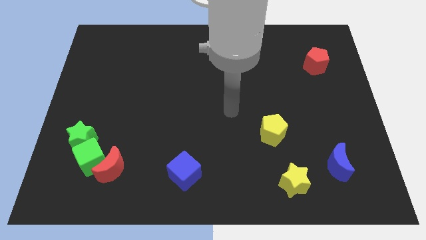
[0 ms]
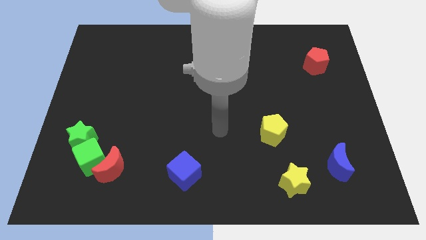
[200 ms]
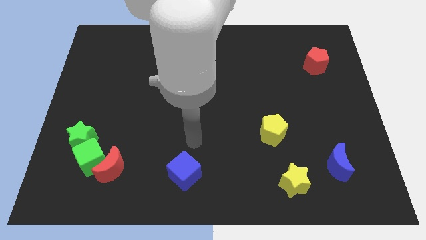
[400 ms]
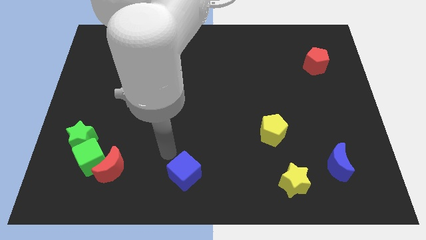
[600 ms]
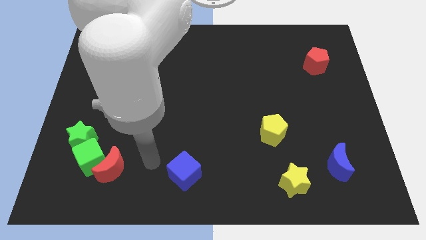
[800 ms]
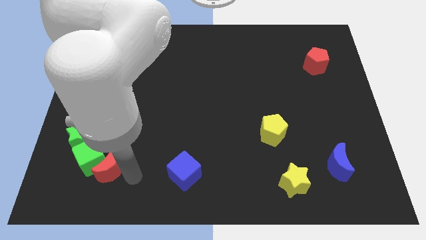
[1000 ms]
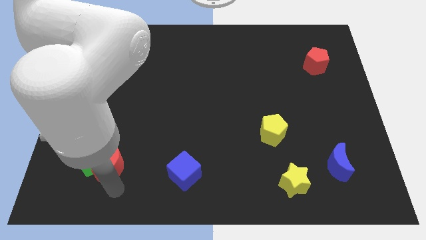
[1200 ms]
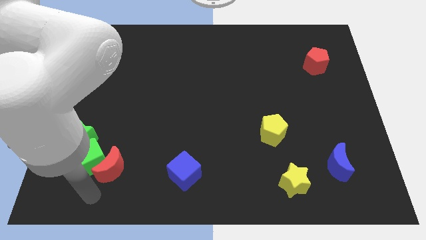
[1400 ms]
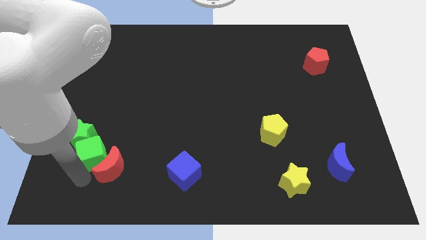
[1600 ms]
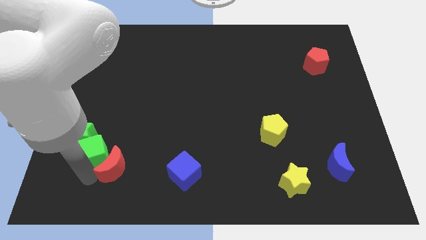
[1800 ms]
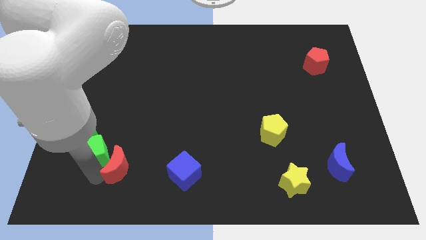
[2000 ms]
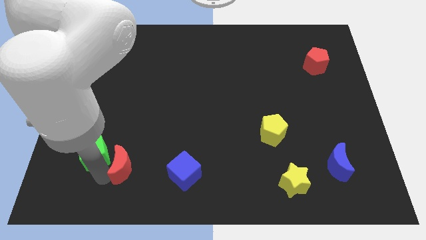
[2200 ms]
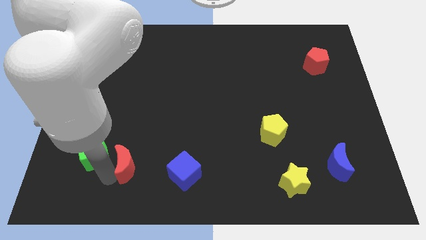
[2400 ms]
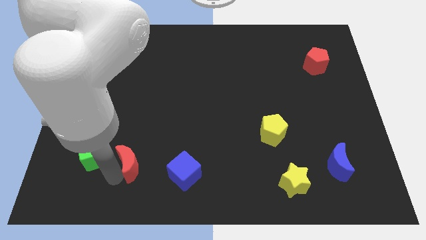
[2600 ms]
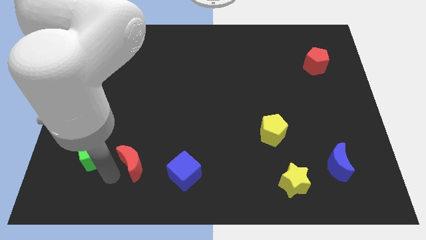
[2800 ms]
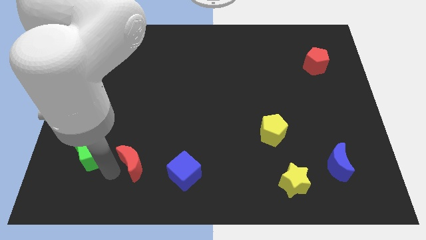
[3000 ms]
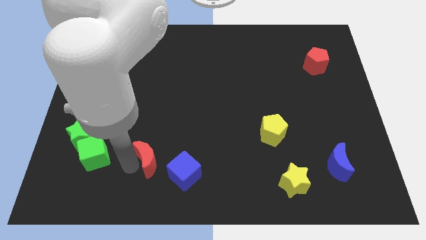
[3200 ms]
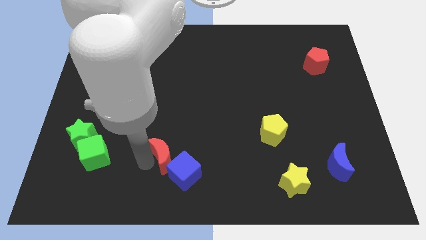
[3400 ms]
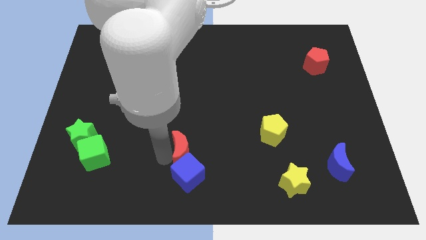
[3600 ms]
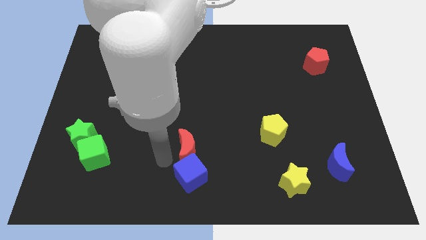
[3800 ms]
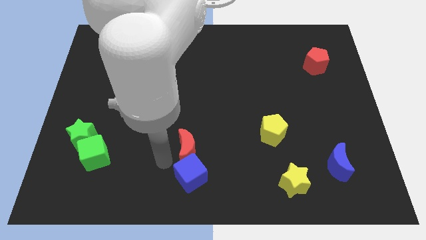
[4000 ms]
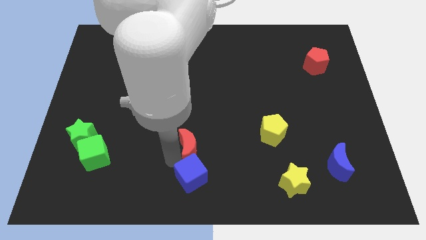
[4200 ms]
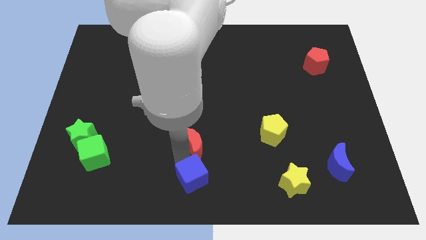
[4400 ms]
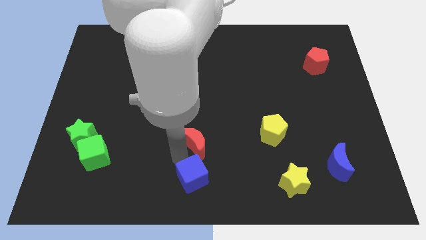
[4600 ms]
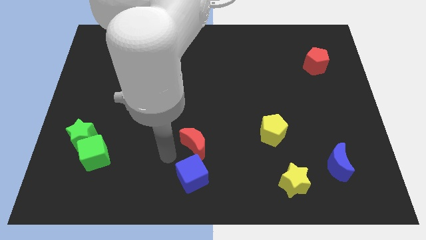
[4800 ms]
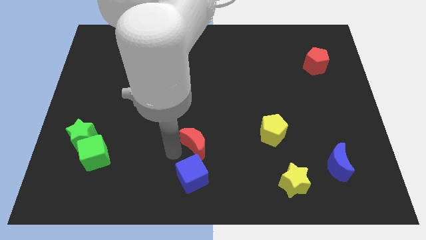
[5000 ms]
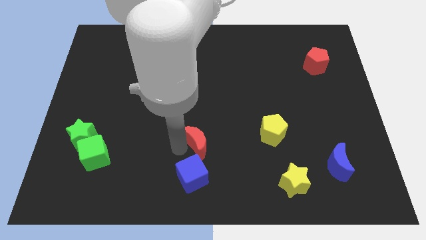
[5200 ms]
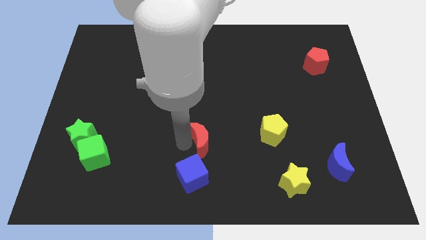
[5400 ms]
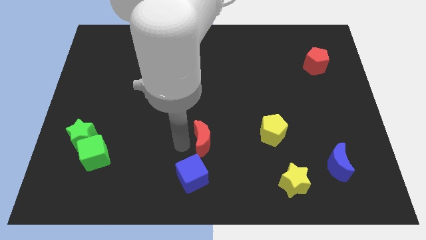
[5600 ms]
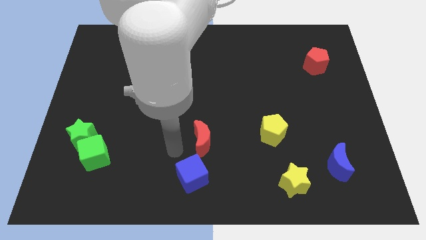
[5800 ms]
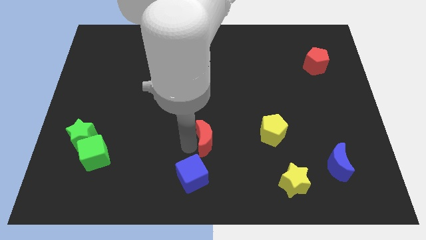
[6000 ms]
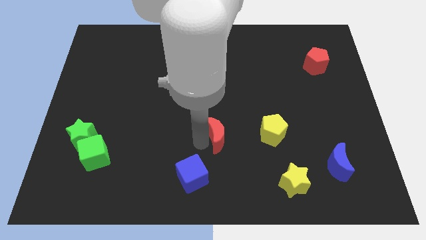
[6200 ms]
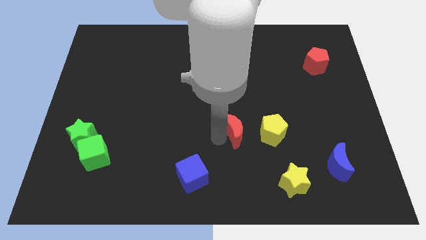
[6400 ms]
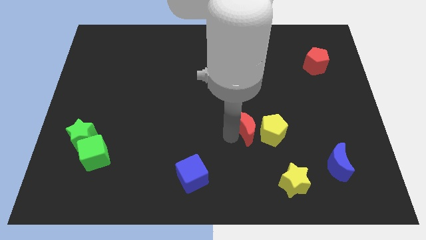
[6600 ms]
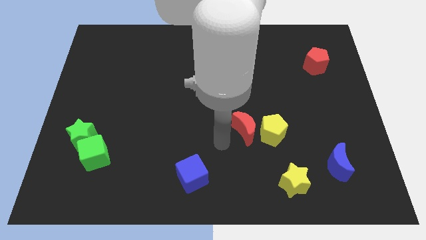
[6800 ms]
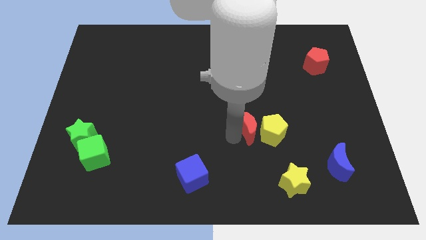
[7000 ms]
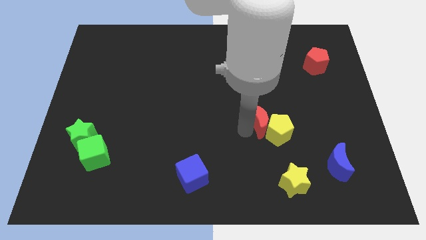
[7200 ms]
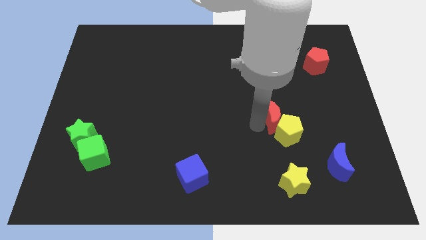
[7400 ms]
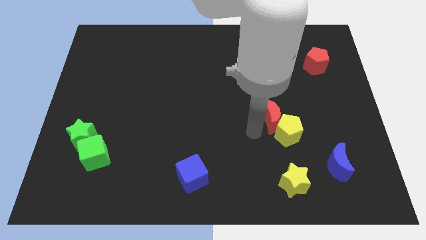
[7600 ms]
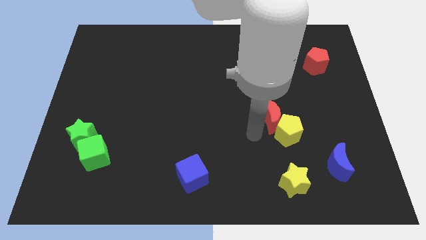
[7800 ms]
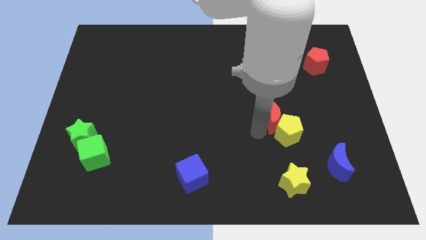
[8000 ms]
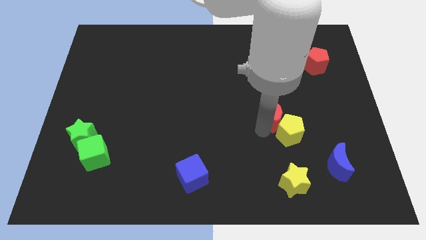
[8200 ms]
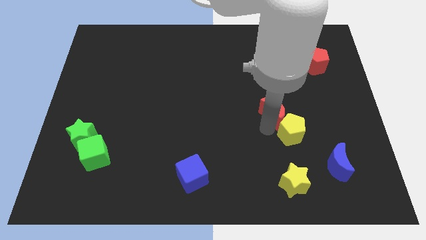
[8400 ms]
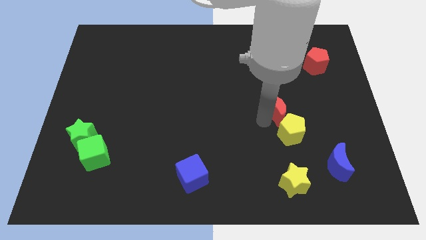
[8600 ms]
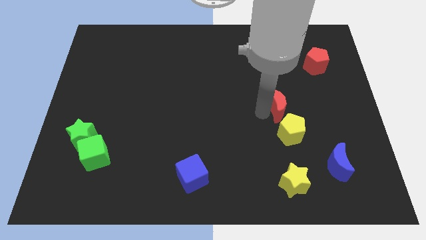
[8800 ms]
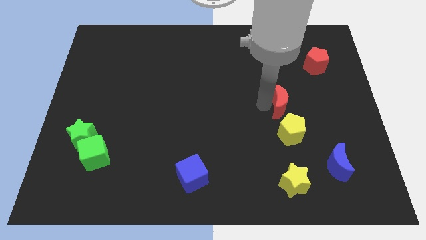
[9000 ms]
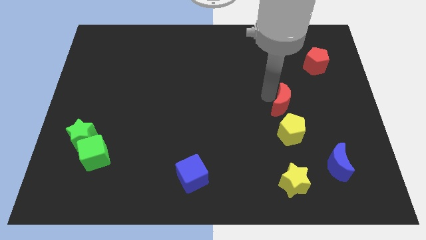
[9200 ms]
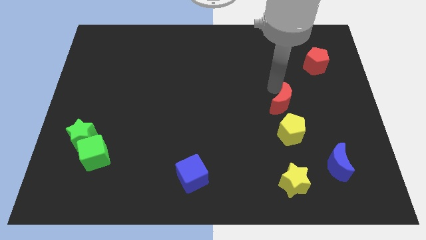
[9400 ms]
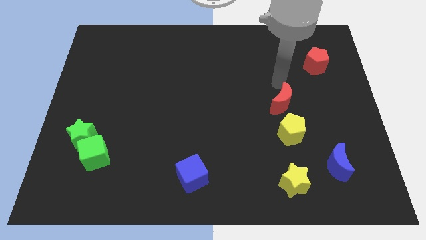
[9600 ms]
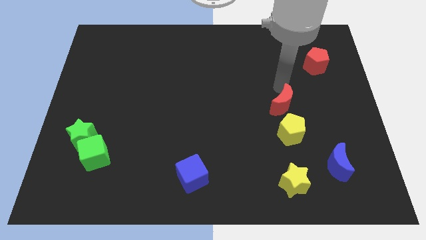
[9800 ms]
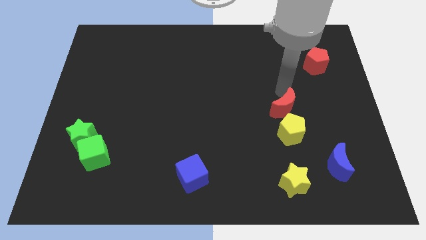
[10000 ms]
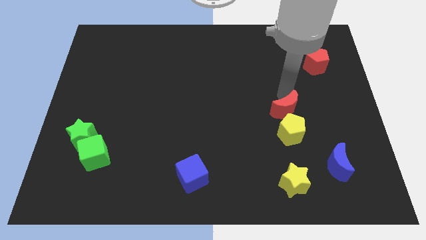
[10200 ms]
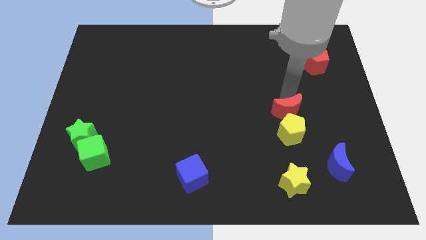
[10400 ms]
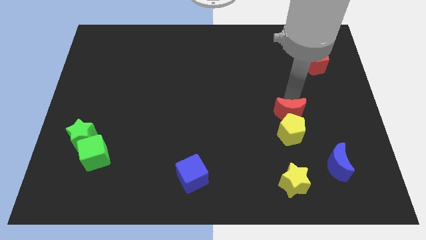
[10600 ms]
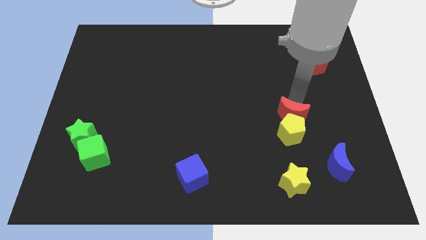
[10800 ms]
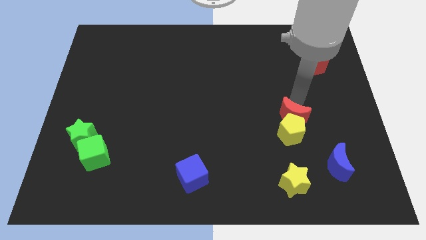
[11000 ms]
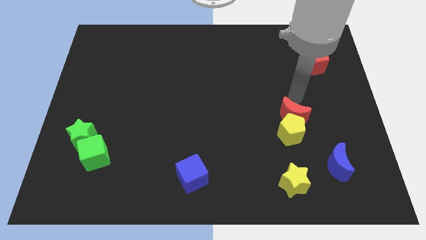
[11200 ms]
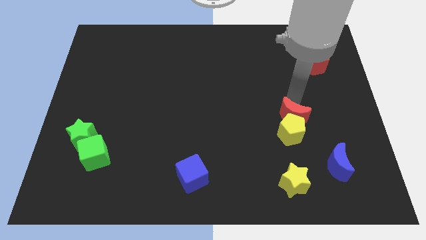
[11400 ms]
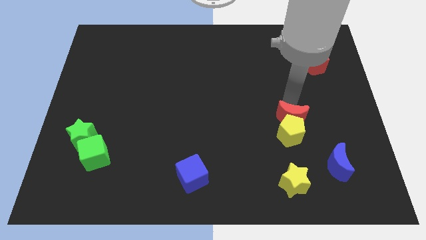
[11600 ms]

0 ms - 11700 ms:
move the red moon to the top of the yellow star
